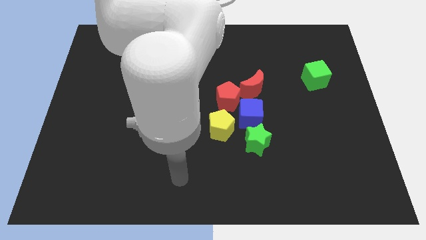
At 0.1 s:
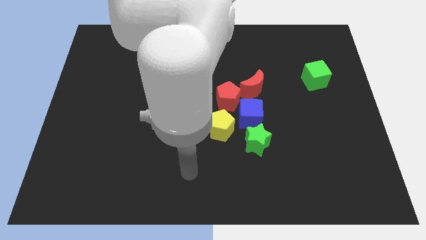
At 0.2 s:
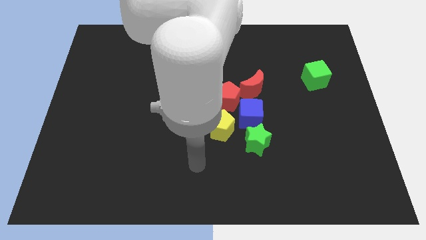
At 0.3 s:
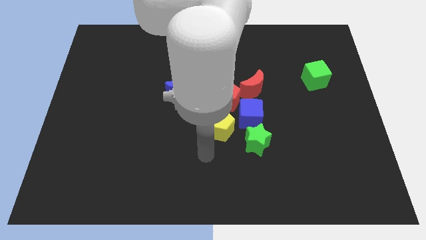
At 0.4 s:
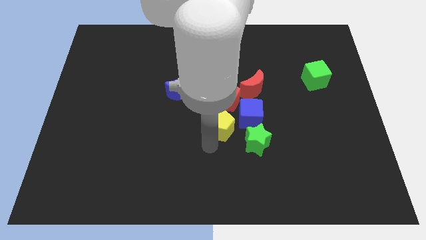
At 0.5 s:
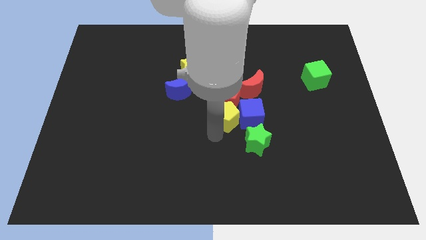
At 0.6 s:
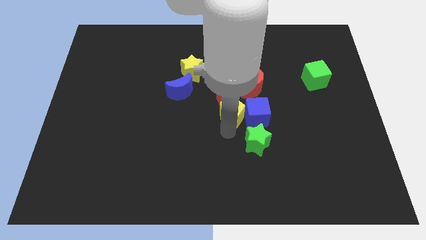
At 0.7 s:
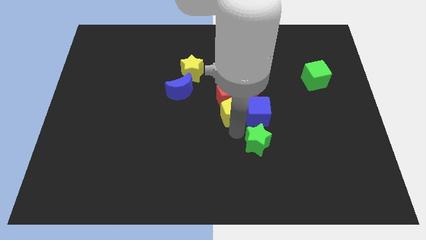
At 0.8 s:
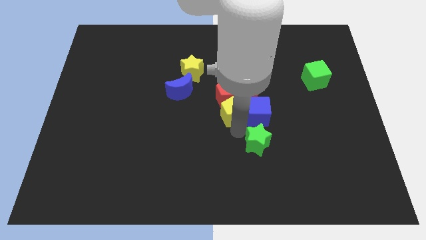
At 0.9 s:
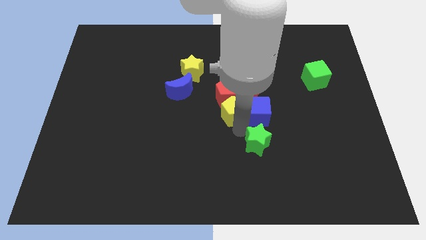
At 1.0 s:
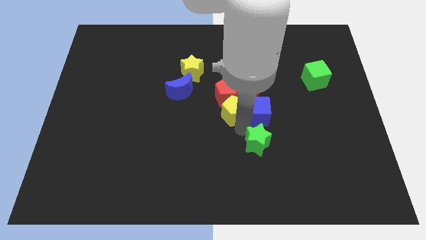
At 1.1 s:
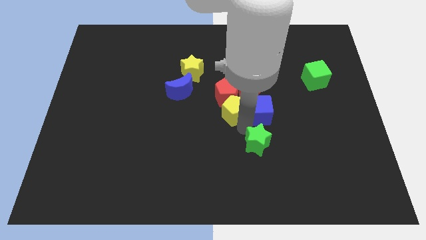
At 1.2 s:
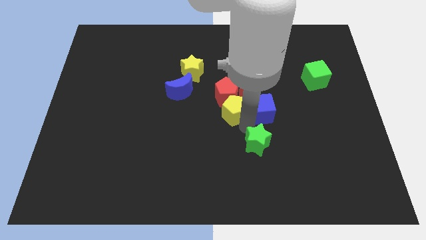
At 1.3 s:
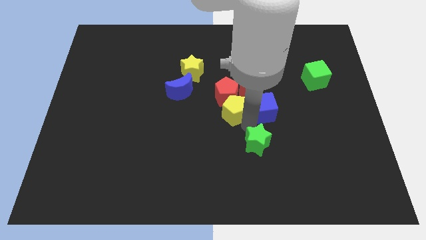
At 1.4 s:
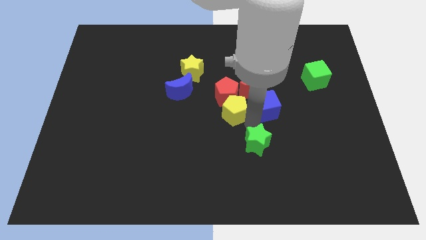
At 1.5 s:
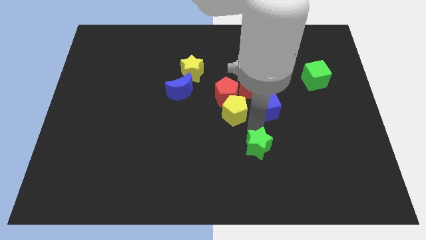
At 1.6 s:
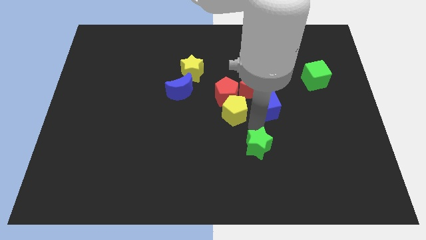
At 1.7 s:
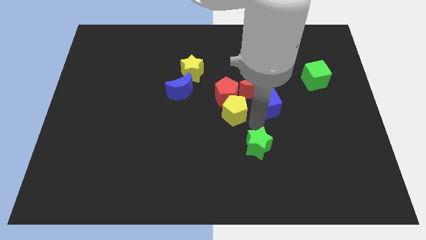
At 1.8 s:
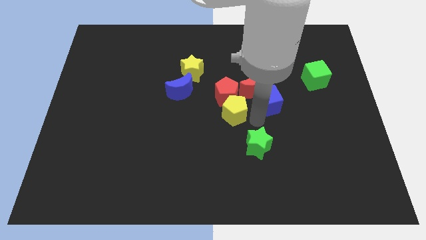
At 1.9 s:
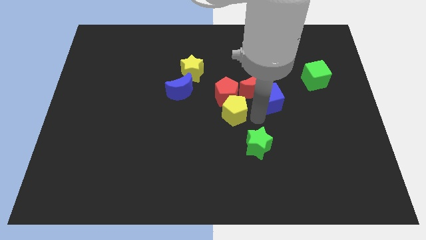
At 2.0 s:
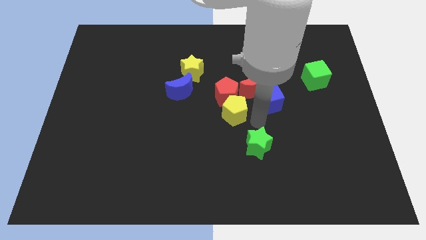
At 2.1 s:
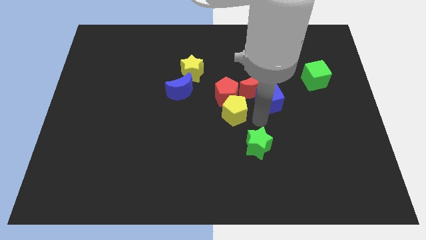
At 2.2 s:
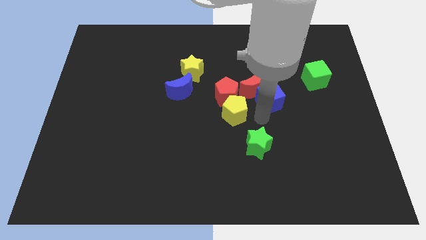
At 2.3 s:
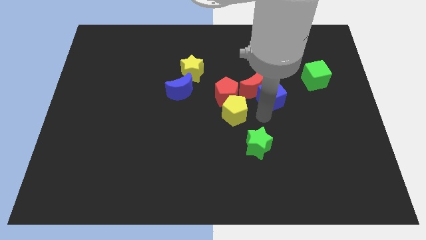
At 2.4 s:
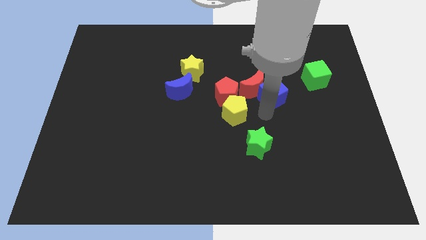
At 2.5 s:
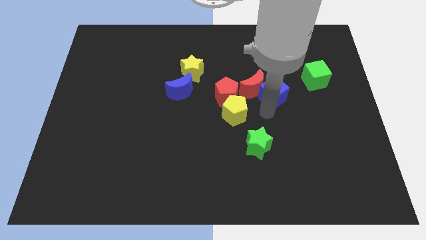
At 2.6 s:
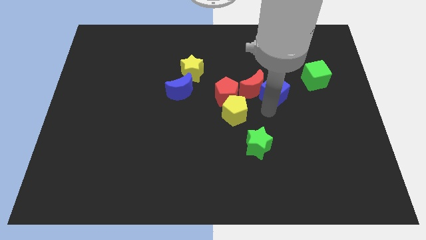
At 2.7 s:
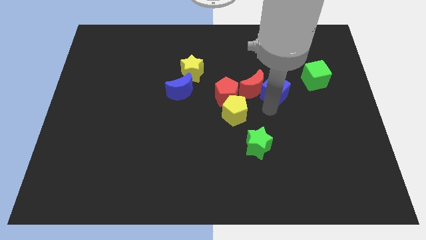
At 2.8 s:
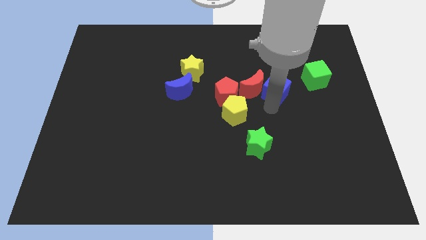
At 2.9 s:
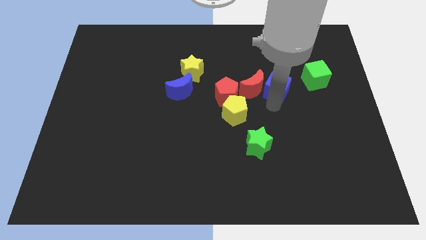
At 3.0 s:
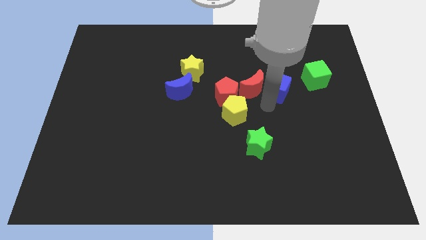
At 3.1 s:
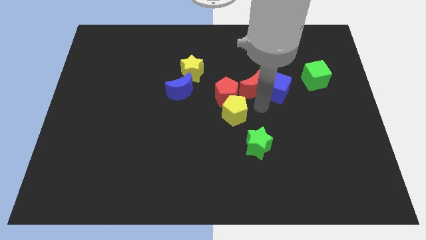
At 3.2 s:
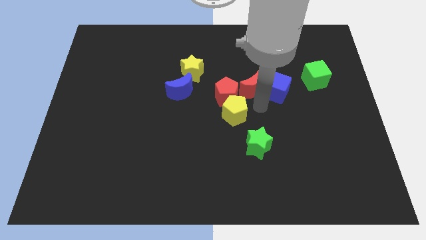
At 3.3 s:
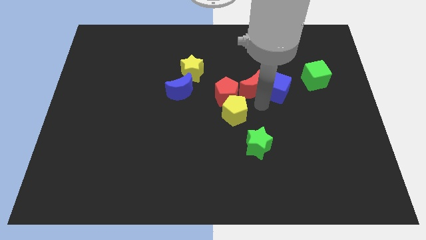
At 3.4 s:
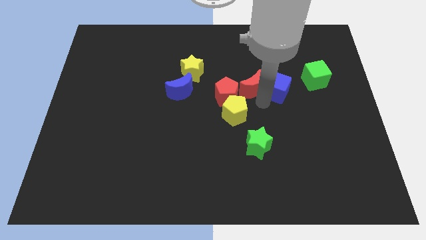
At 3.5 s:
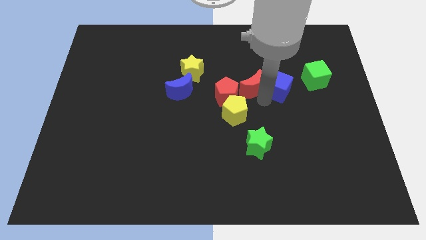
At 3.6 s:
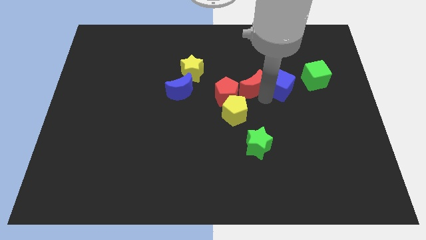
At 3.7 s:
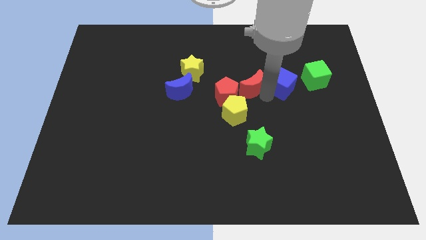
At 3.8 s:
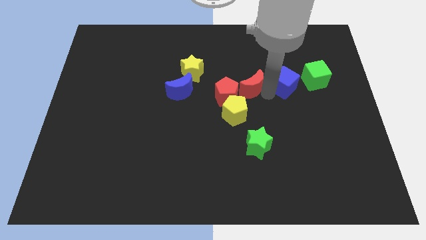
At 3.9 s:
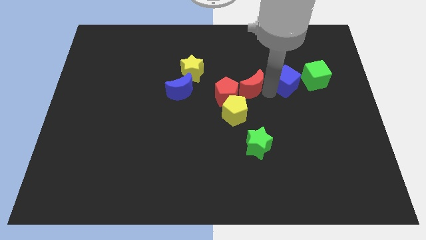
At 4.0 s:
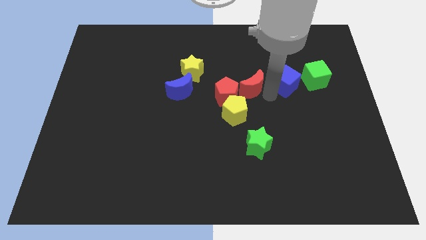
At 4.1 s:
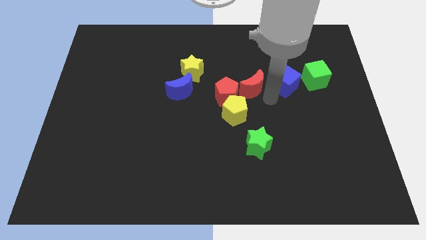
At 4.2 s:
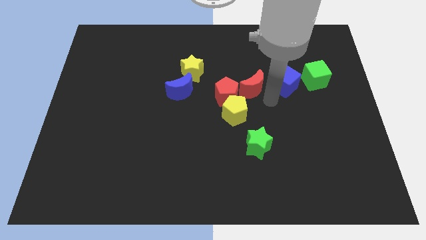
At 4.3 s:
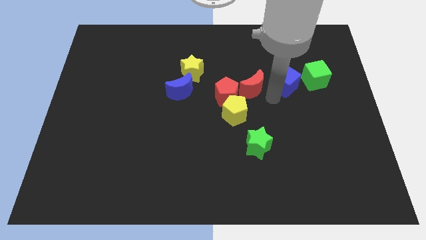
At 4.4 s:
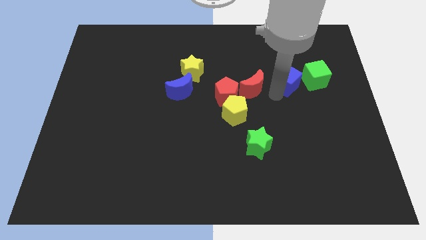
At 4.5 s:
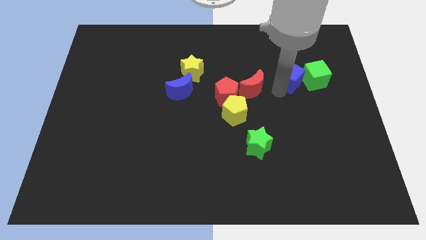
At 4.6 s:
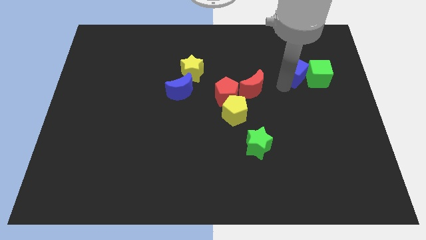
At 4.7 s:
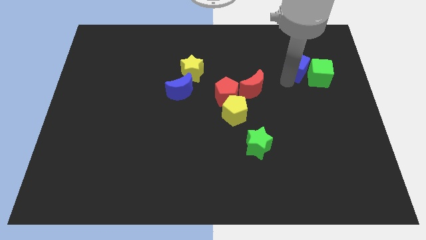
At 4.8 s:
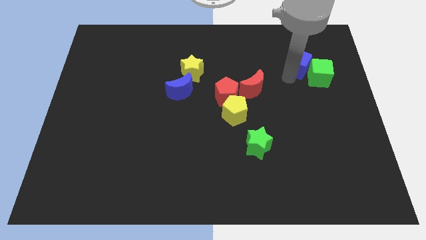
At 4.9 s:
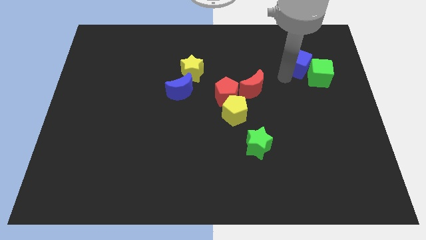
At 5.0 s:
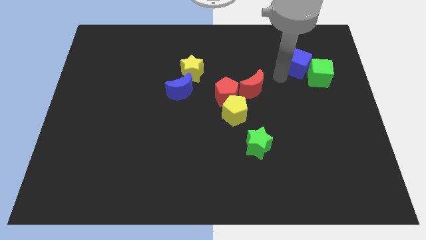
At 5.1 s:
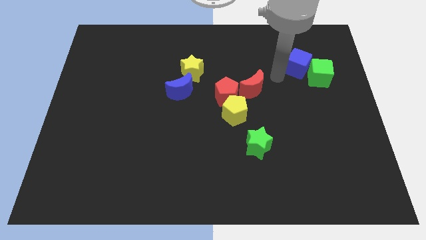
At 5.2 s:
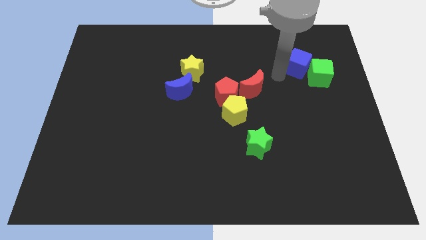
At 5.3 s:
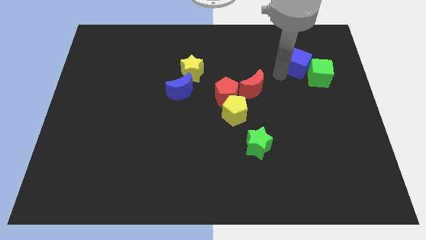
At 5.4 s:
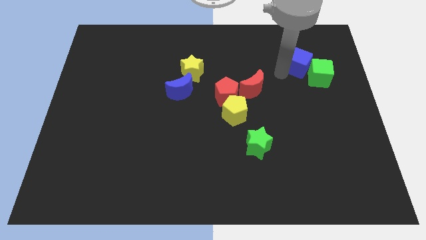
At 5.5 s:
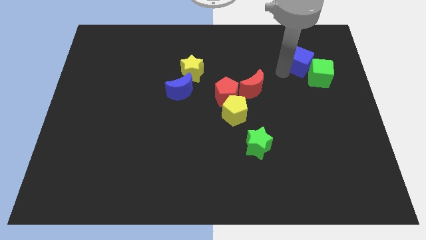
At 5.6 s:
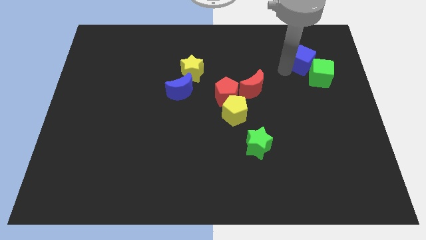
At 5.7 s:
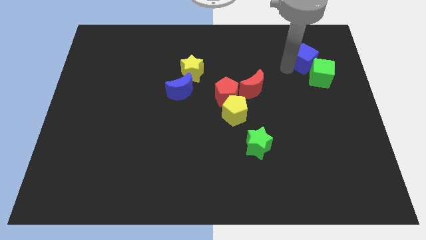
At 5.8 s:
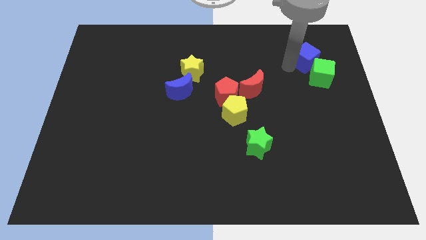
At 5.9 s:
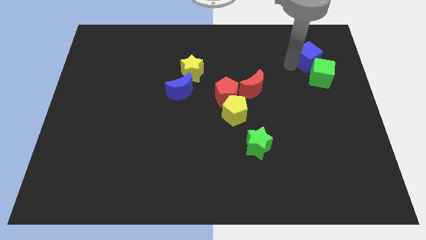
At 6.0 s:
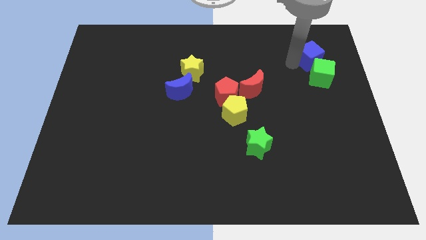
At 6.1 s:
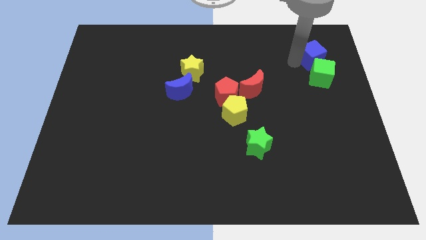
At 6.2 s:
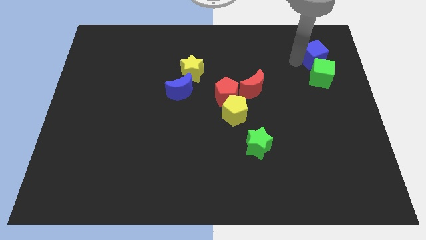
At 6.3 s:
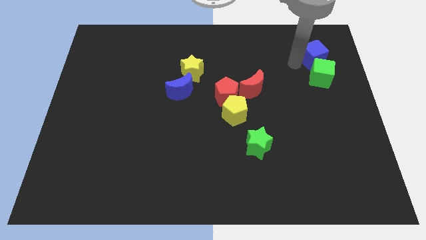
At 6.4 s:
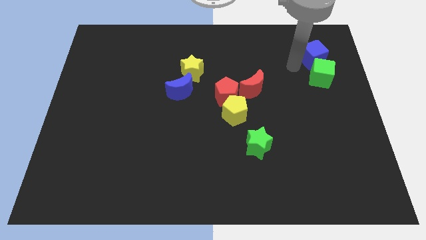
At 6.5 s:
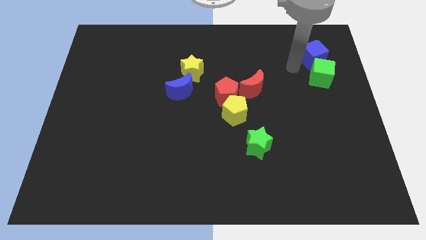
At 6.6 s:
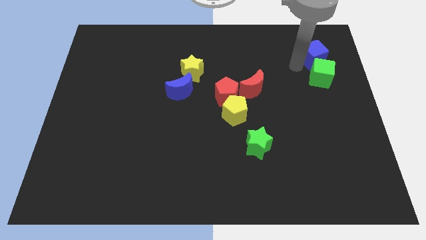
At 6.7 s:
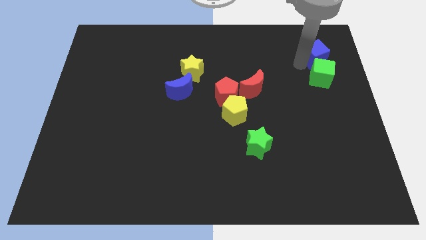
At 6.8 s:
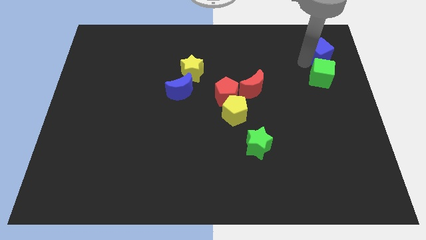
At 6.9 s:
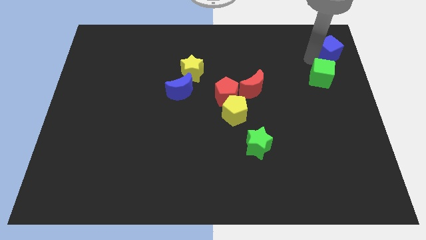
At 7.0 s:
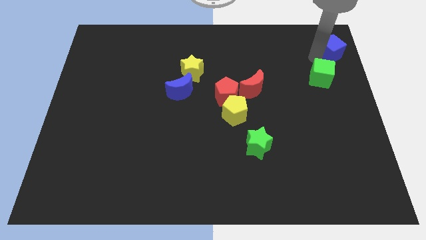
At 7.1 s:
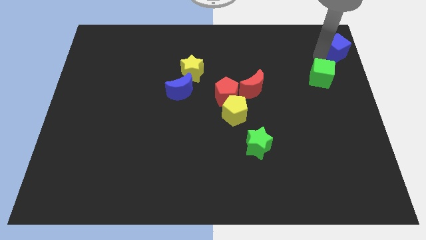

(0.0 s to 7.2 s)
move the blue cube to the top right
